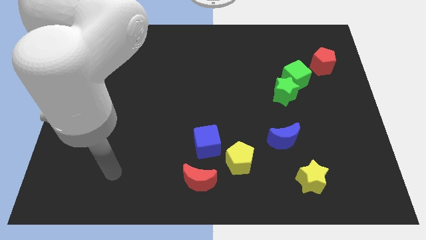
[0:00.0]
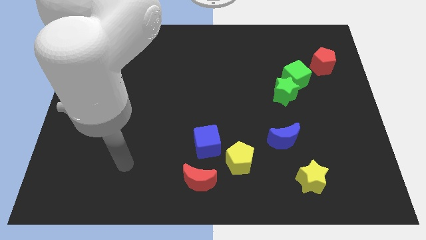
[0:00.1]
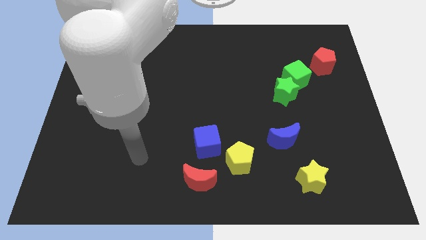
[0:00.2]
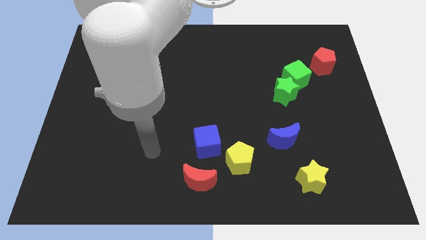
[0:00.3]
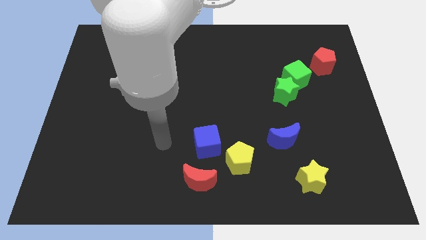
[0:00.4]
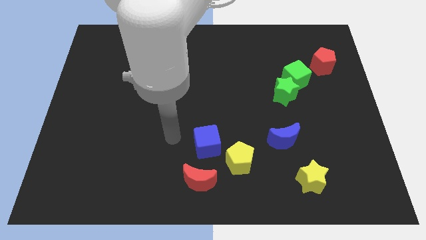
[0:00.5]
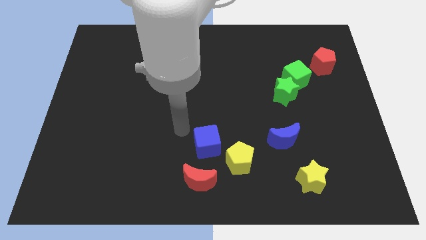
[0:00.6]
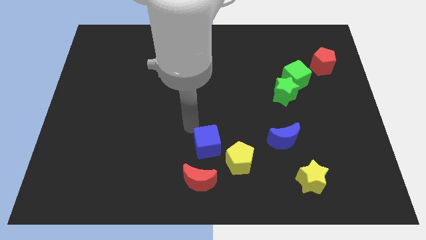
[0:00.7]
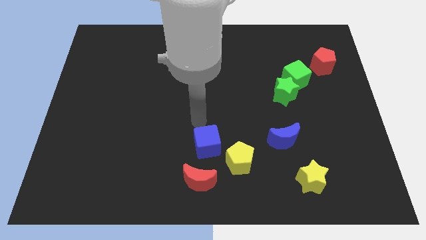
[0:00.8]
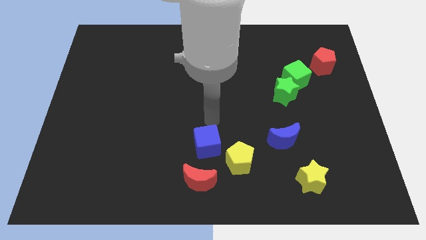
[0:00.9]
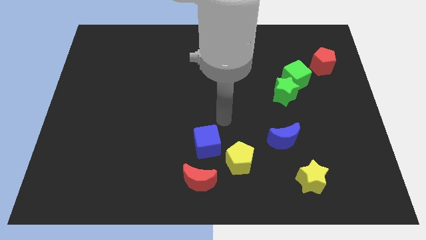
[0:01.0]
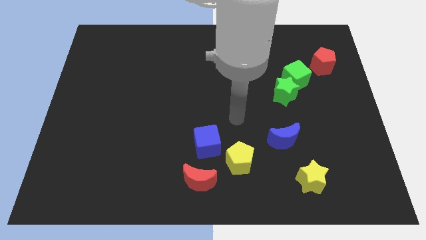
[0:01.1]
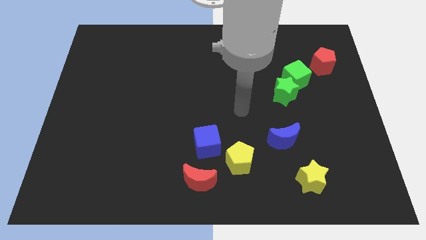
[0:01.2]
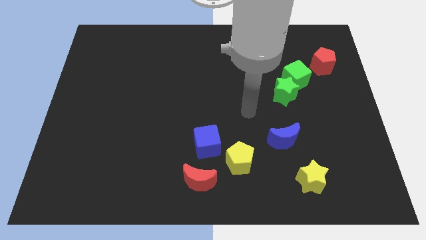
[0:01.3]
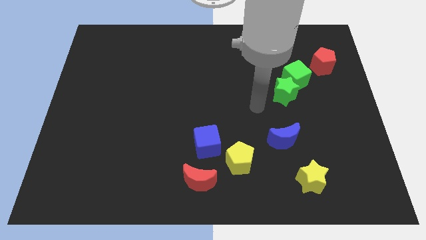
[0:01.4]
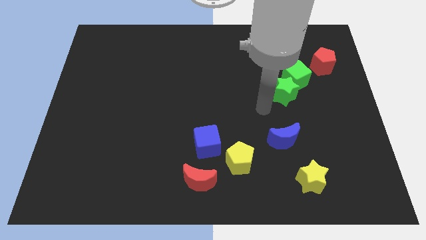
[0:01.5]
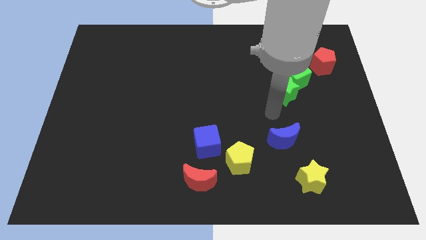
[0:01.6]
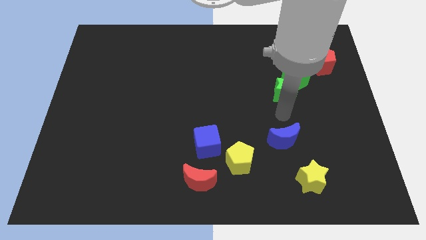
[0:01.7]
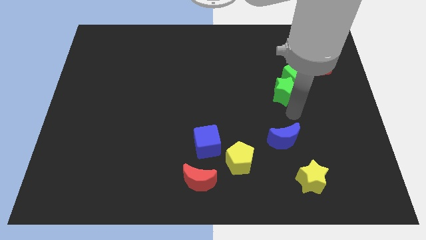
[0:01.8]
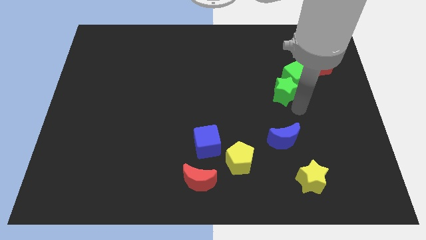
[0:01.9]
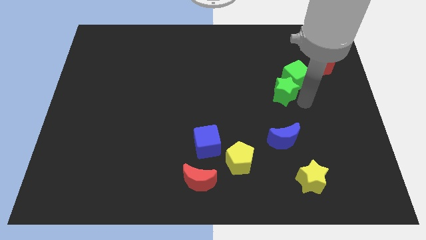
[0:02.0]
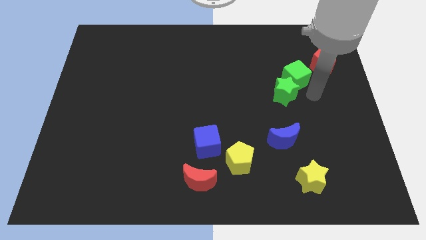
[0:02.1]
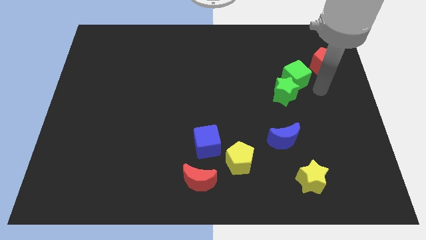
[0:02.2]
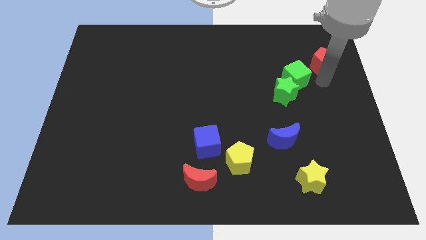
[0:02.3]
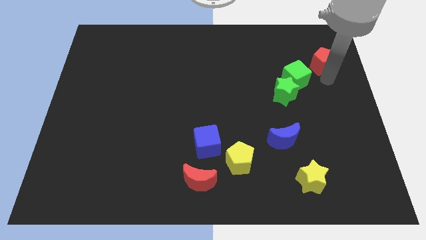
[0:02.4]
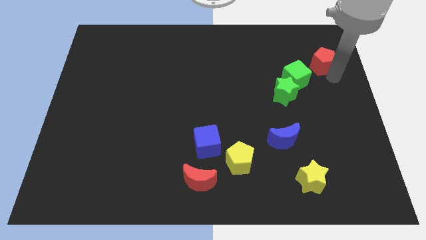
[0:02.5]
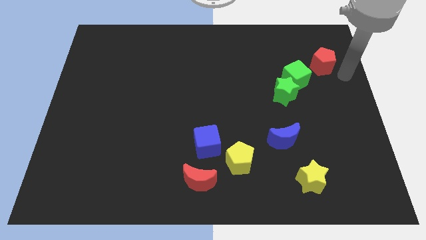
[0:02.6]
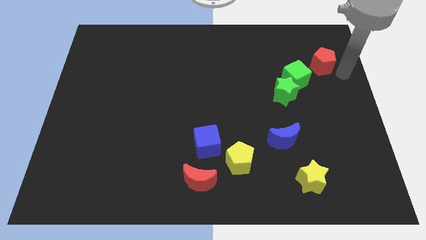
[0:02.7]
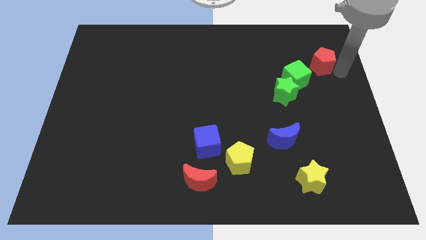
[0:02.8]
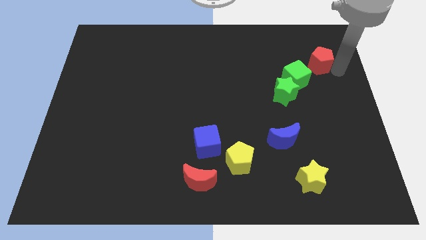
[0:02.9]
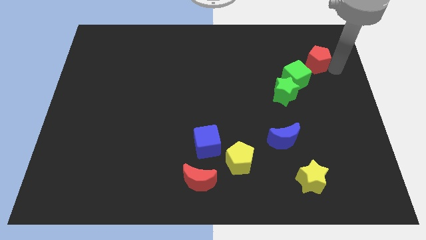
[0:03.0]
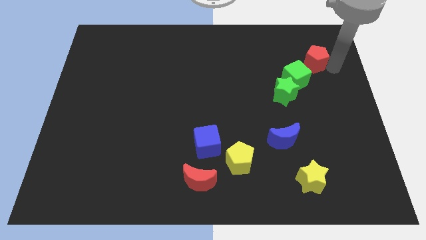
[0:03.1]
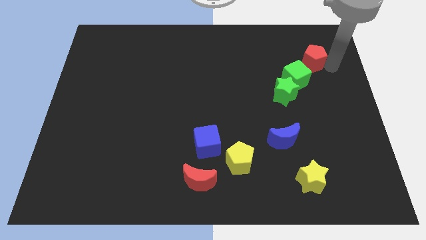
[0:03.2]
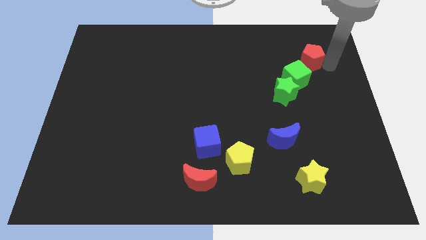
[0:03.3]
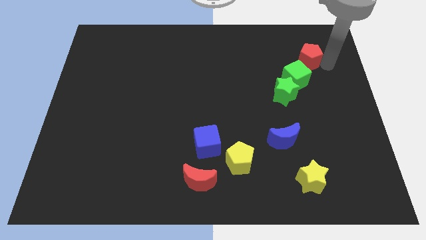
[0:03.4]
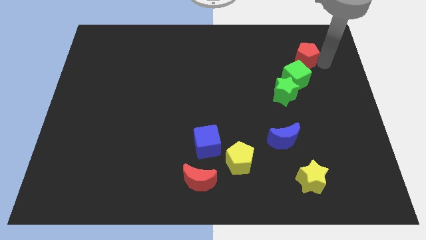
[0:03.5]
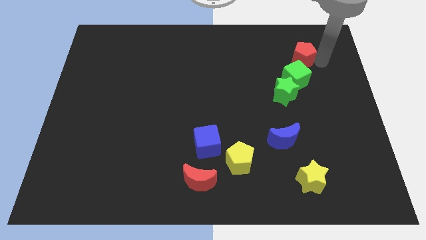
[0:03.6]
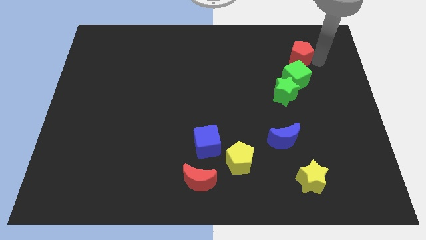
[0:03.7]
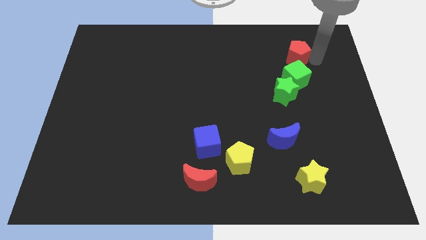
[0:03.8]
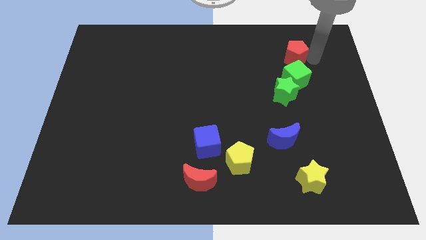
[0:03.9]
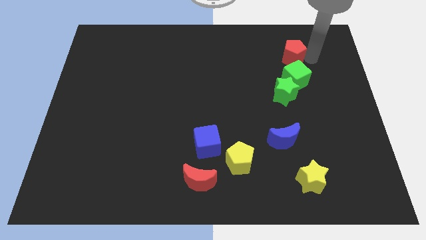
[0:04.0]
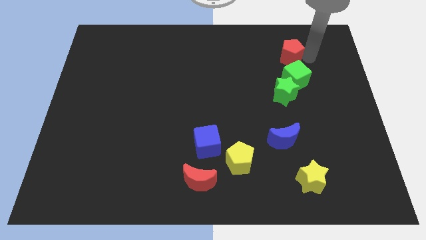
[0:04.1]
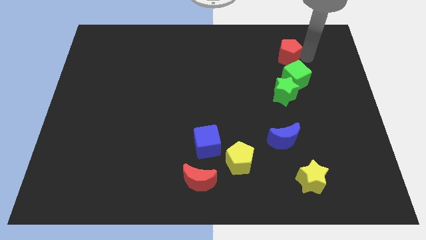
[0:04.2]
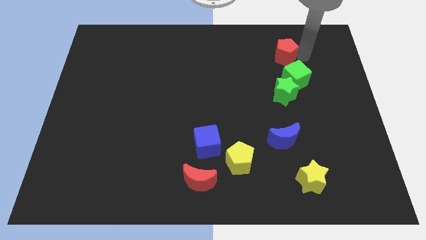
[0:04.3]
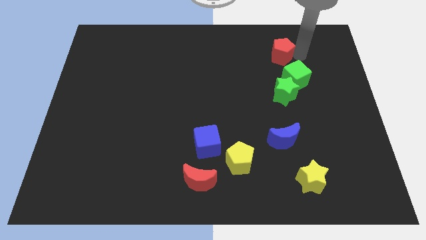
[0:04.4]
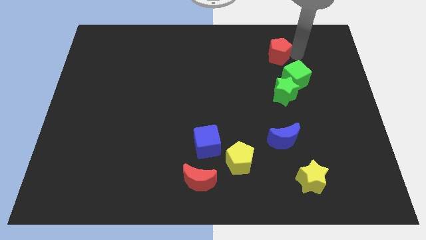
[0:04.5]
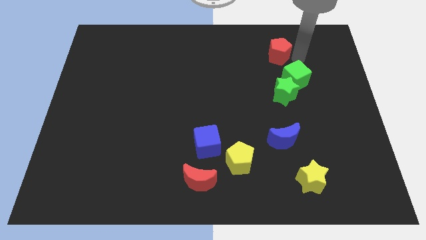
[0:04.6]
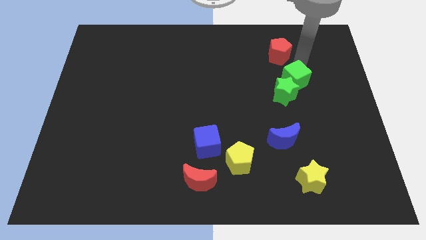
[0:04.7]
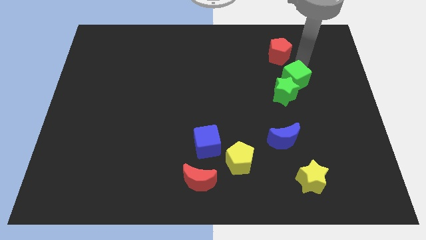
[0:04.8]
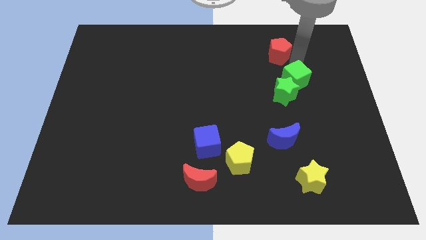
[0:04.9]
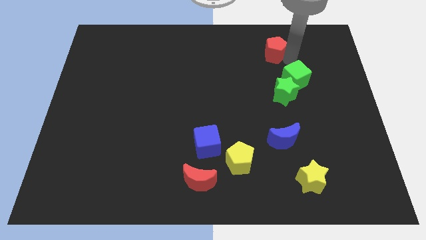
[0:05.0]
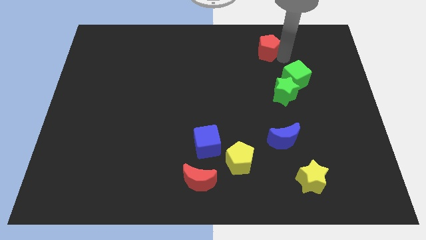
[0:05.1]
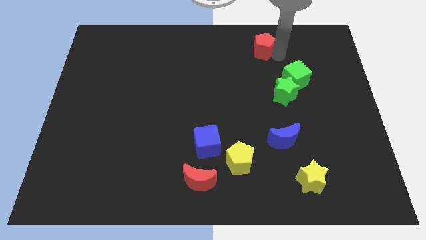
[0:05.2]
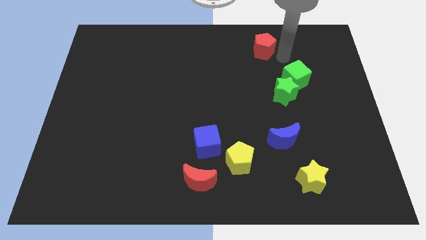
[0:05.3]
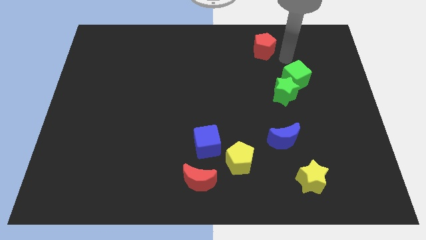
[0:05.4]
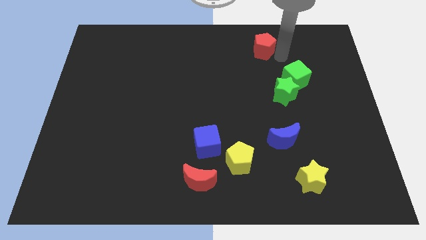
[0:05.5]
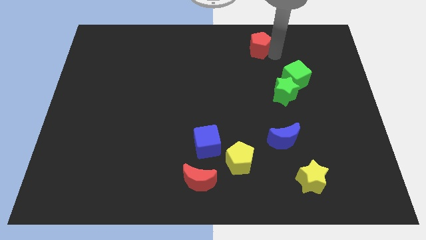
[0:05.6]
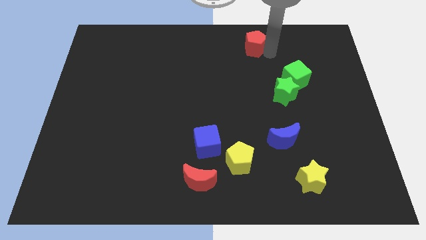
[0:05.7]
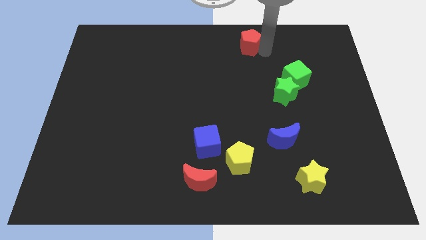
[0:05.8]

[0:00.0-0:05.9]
move the red pentagon to the top
